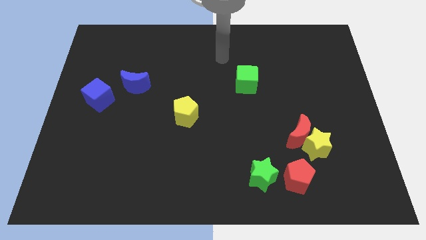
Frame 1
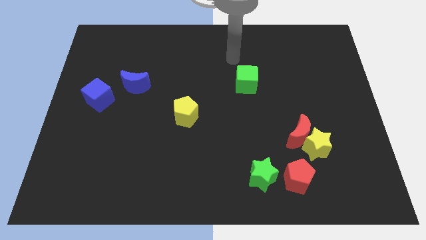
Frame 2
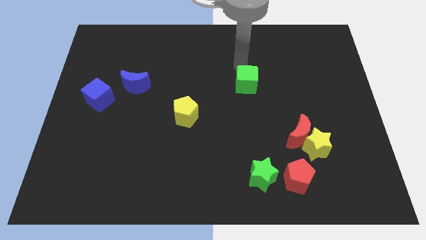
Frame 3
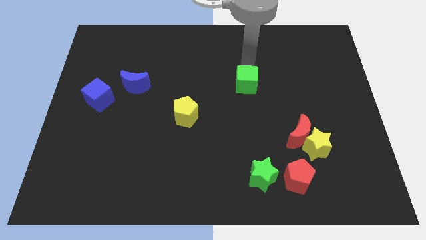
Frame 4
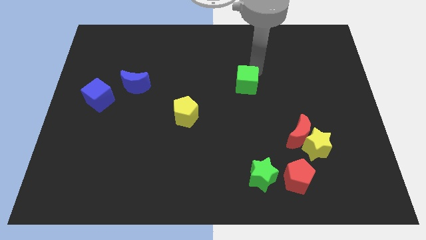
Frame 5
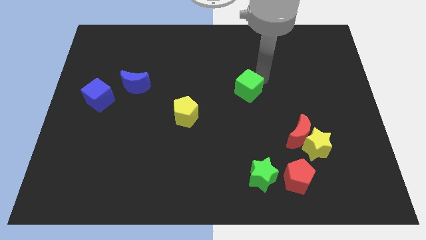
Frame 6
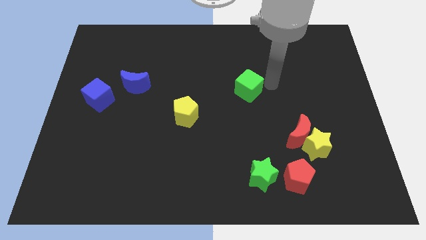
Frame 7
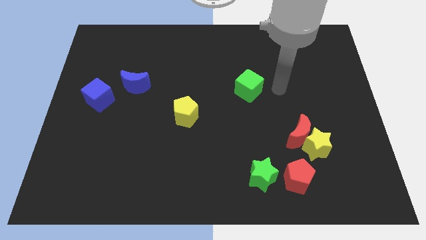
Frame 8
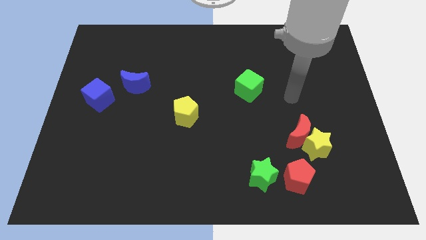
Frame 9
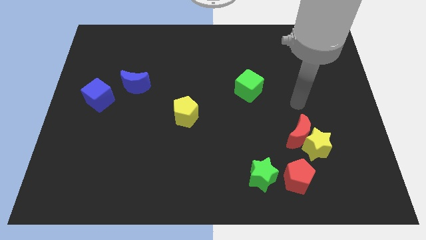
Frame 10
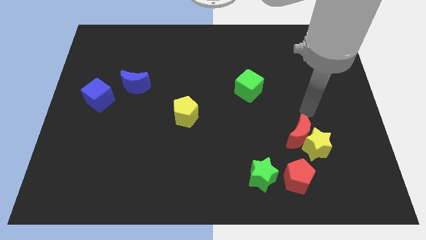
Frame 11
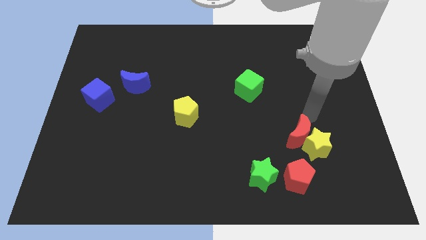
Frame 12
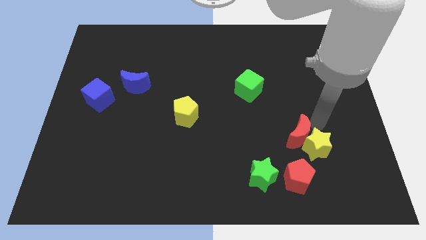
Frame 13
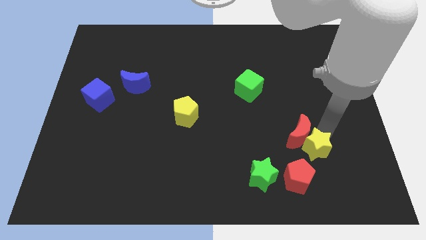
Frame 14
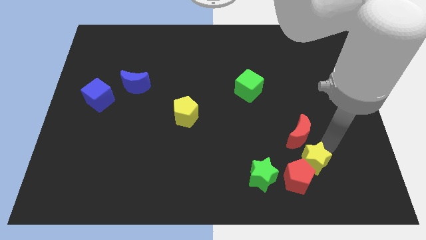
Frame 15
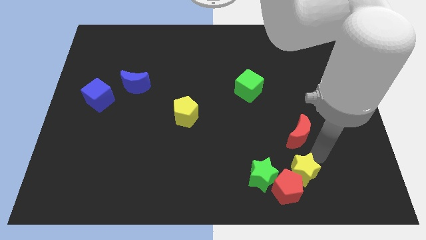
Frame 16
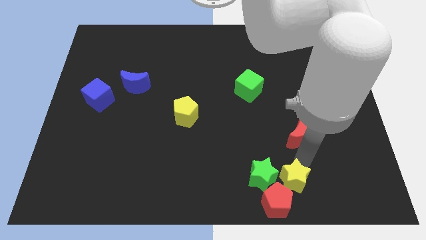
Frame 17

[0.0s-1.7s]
pull the red moon apart from the yellow star

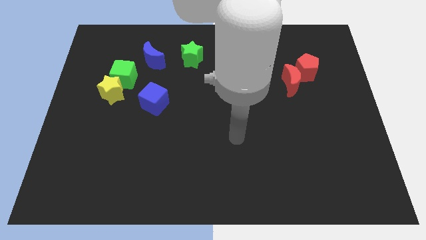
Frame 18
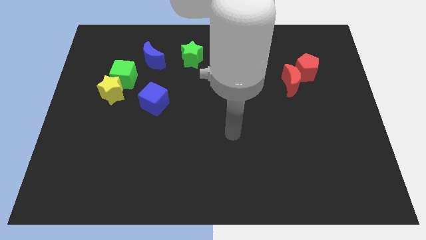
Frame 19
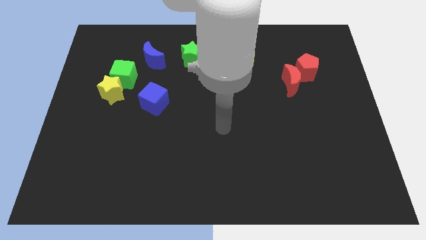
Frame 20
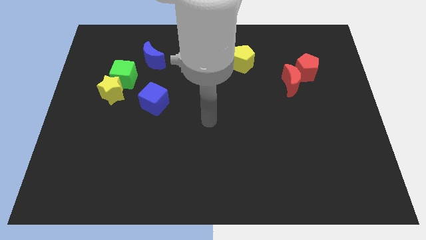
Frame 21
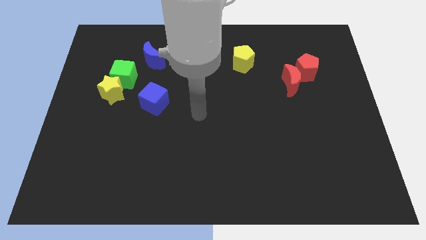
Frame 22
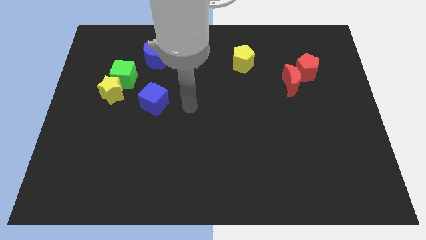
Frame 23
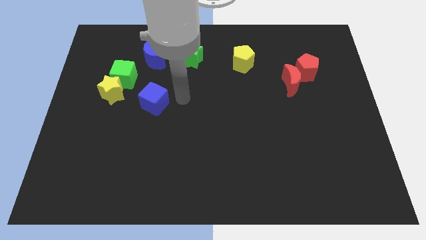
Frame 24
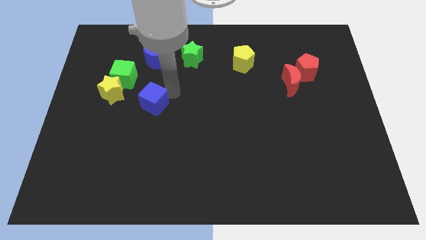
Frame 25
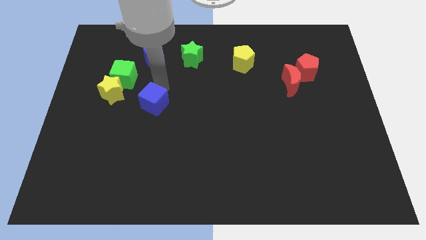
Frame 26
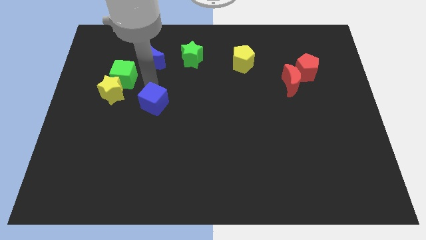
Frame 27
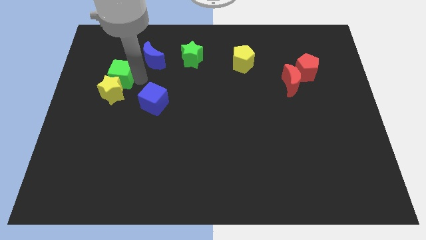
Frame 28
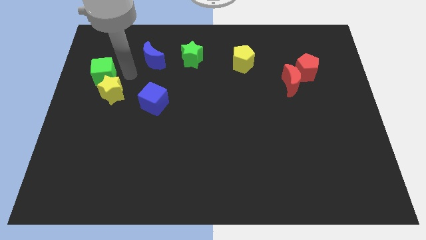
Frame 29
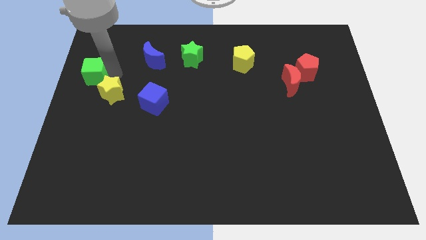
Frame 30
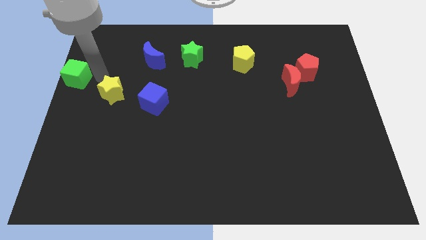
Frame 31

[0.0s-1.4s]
separate the yellow star from the green cube

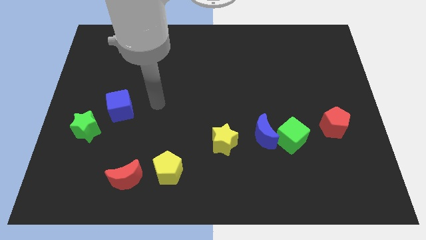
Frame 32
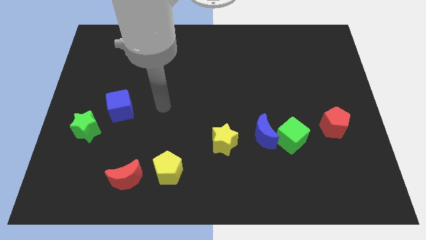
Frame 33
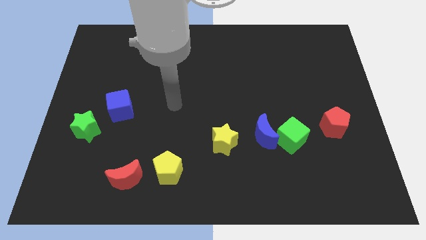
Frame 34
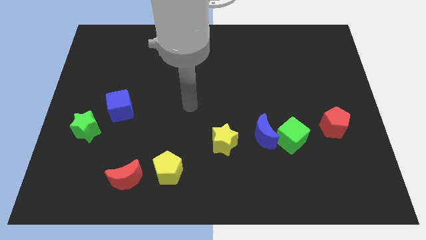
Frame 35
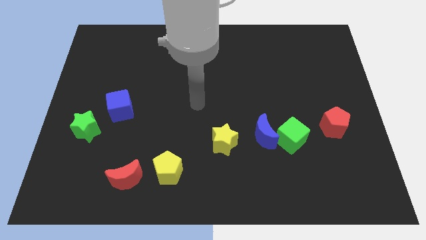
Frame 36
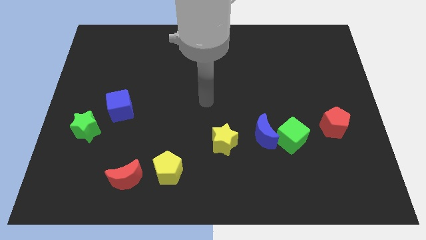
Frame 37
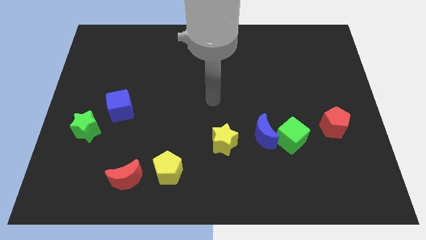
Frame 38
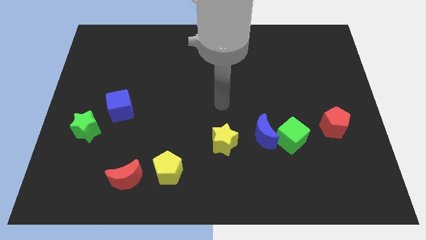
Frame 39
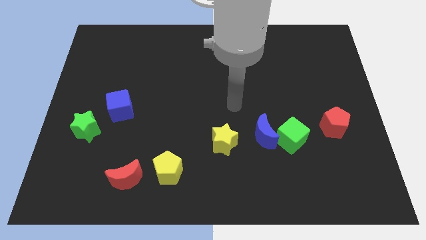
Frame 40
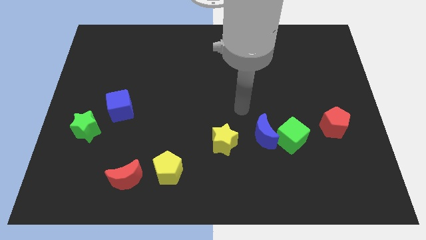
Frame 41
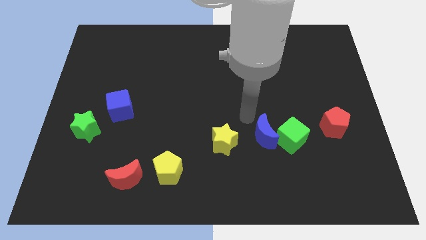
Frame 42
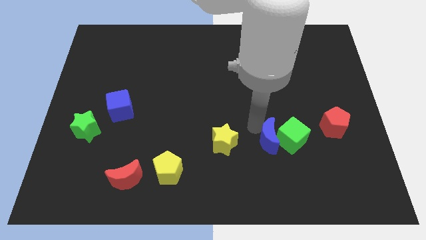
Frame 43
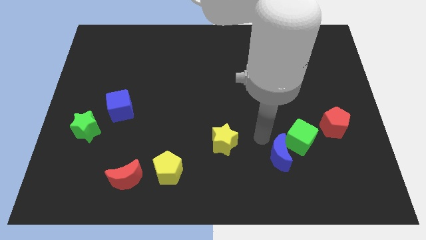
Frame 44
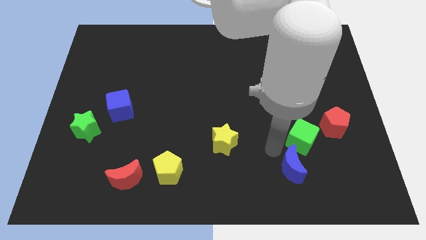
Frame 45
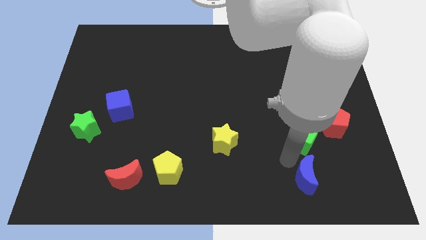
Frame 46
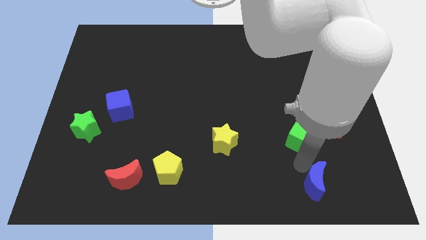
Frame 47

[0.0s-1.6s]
separate the green cube from the blue moon

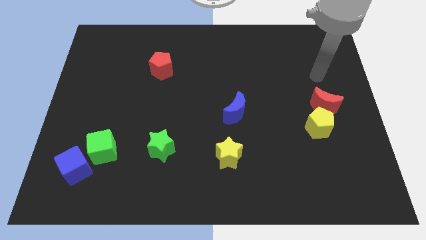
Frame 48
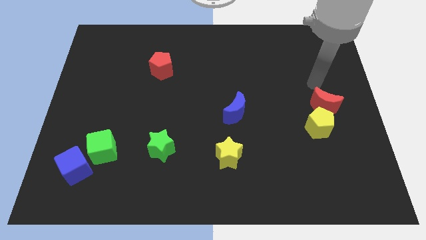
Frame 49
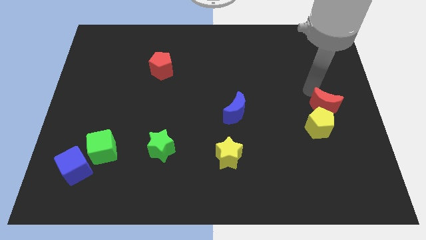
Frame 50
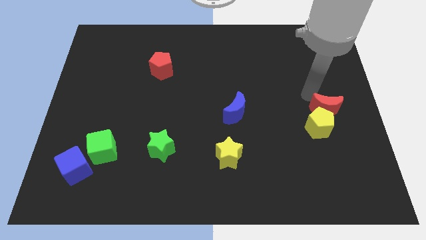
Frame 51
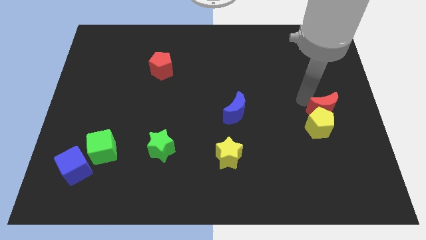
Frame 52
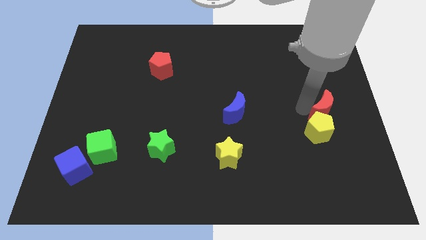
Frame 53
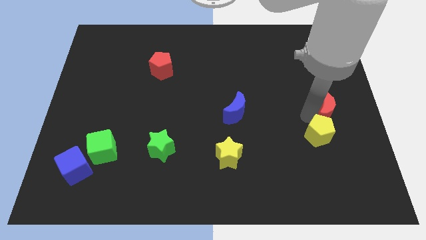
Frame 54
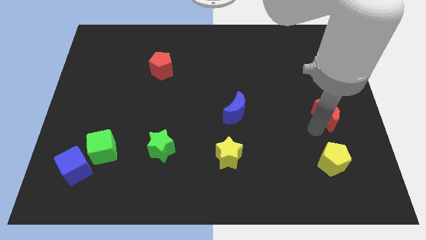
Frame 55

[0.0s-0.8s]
pull the red moon apart from the yellow pentagon

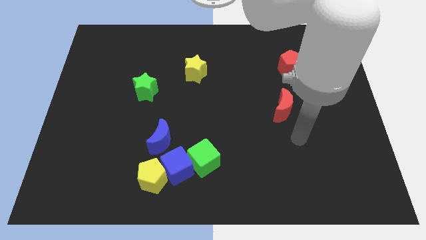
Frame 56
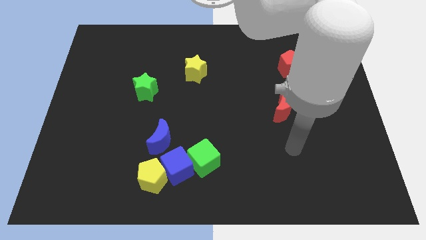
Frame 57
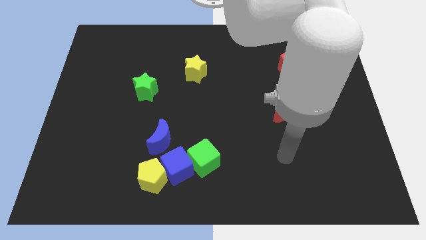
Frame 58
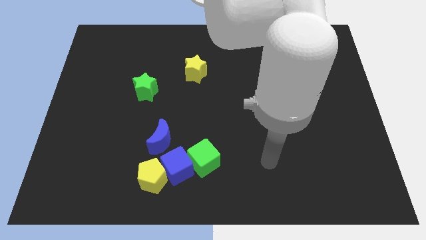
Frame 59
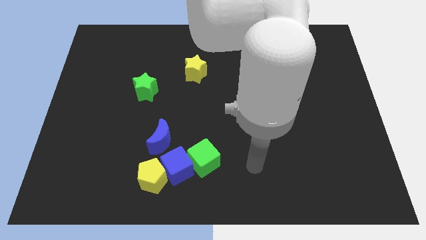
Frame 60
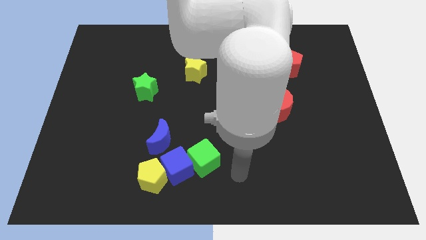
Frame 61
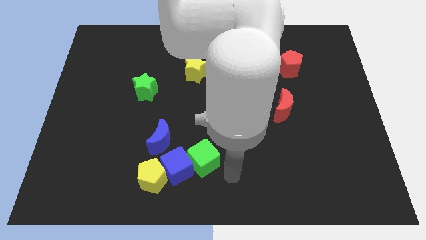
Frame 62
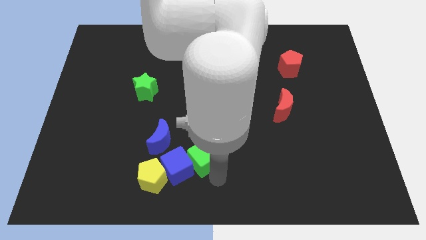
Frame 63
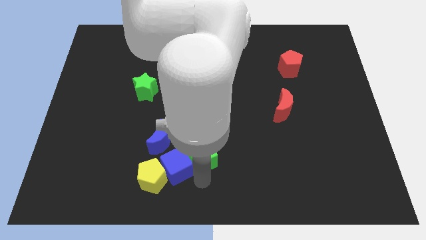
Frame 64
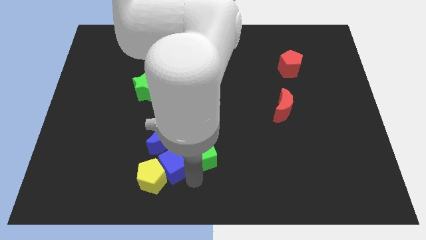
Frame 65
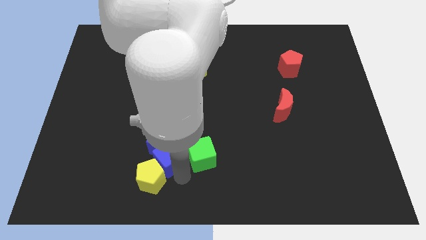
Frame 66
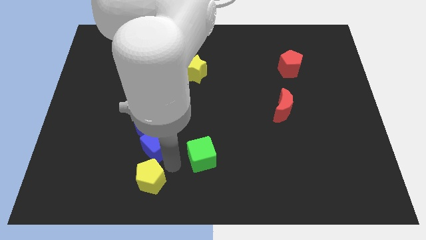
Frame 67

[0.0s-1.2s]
move the green cube away from the blue cube

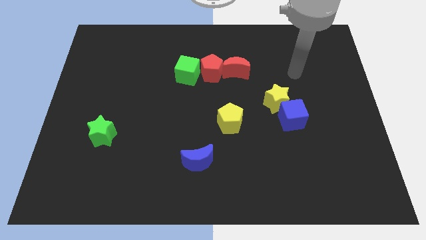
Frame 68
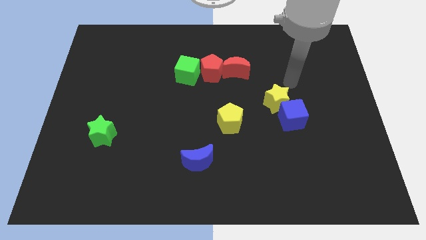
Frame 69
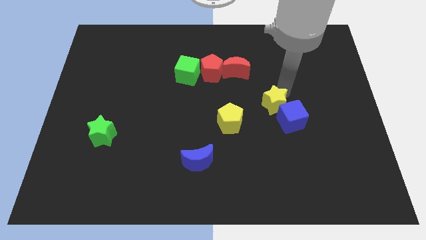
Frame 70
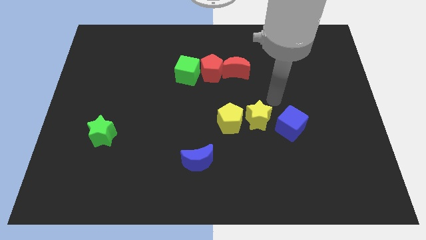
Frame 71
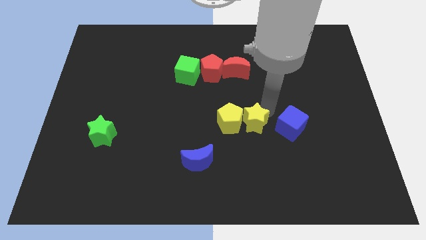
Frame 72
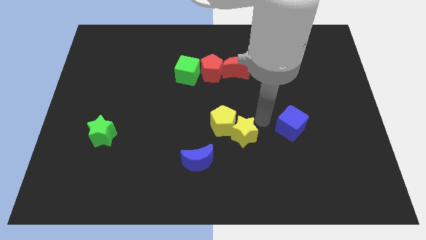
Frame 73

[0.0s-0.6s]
separate the blue cube from the yellow star

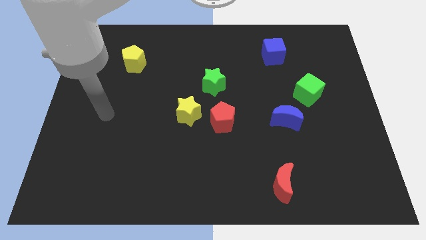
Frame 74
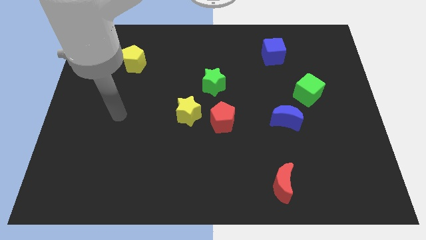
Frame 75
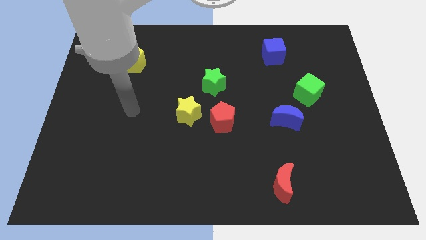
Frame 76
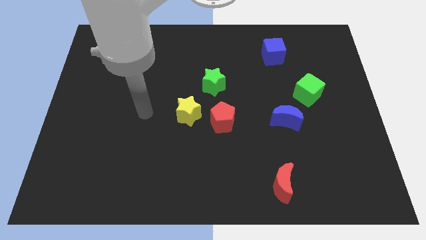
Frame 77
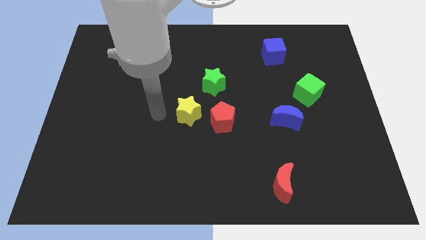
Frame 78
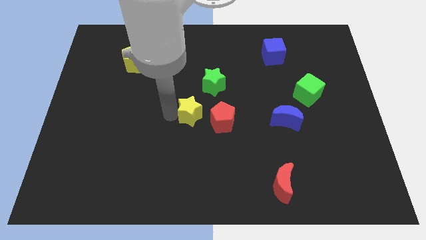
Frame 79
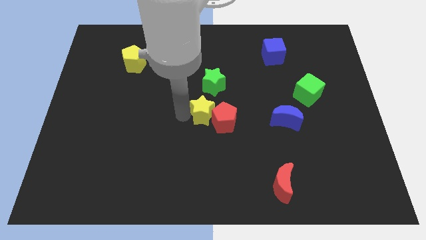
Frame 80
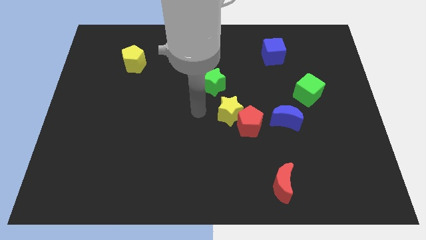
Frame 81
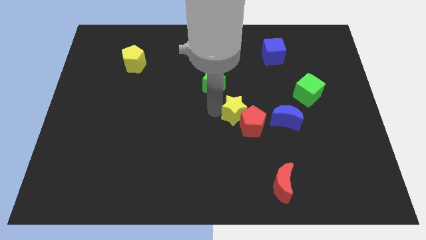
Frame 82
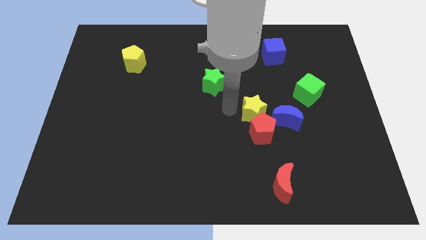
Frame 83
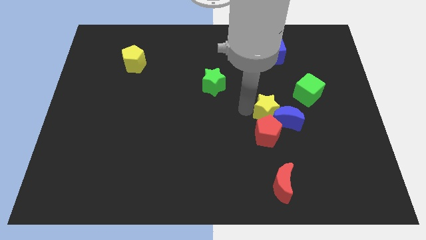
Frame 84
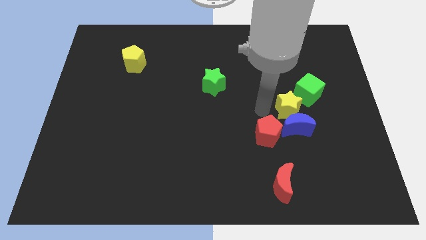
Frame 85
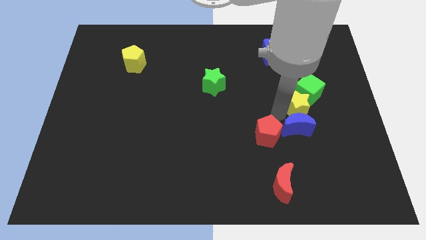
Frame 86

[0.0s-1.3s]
move the red pentagon away from the yellow star

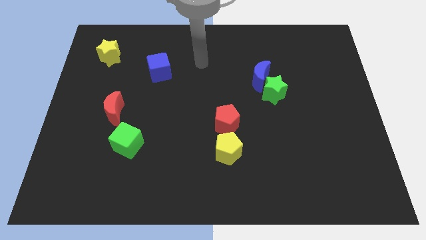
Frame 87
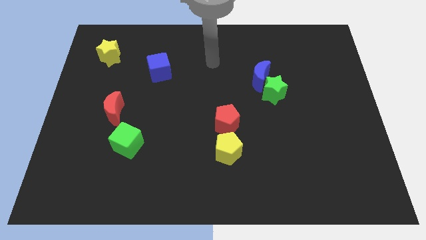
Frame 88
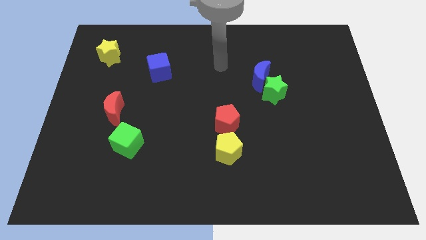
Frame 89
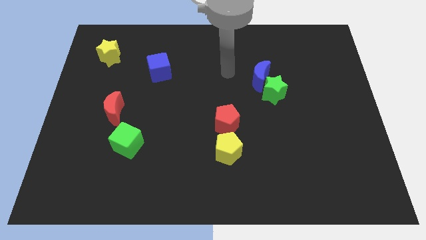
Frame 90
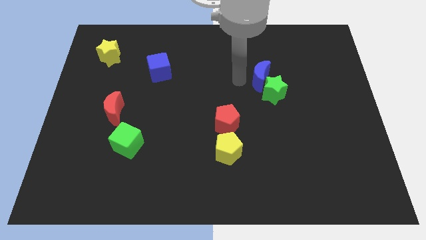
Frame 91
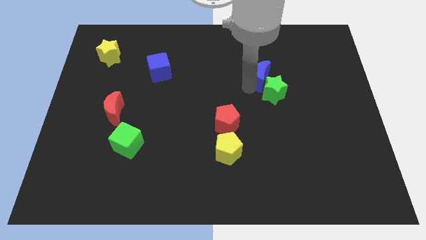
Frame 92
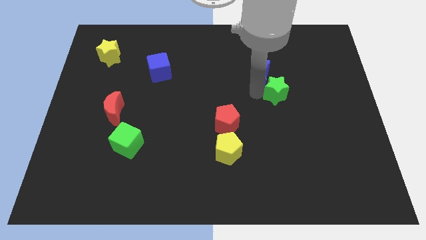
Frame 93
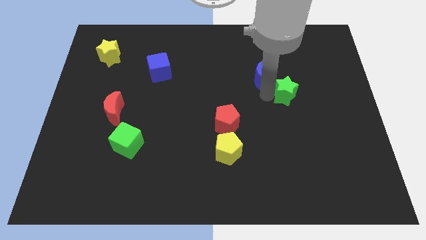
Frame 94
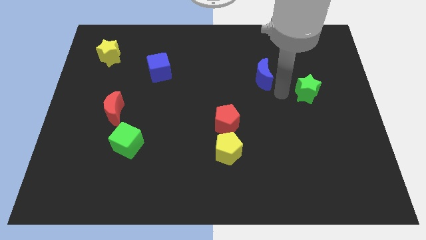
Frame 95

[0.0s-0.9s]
separate the blue moon from the green star
